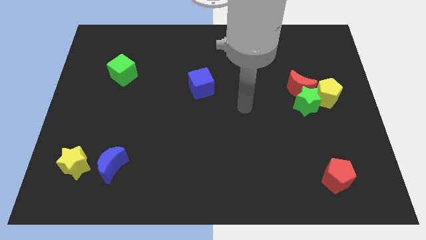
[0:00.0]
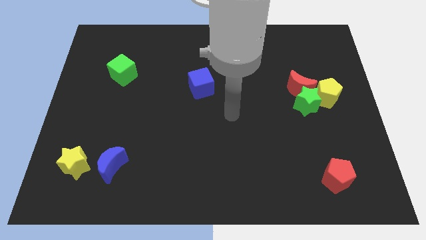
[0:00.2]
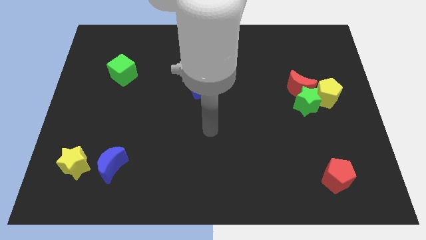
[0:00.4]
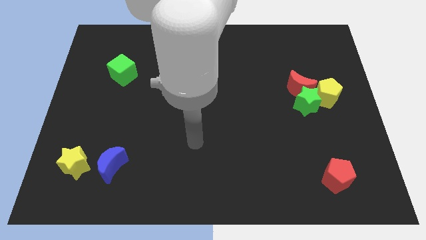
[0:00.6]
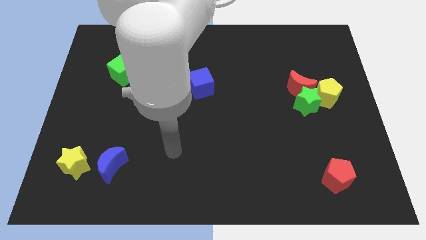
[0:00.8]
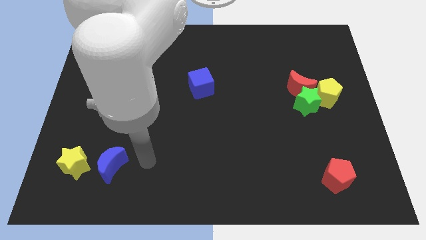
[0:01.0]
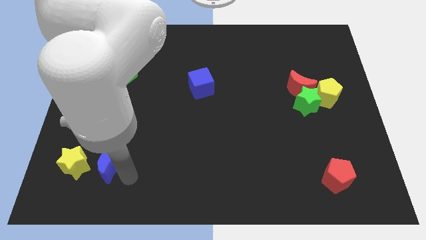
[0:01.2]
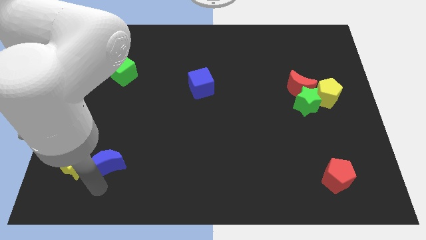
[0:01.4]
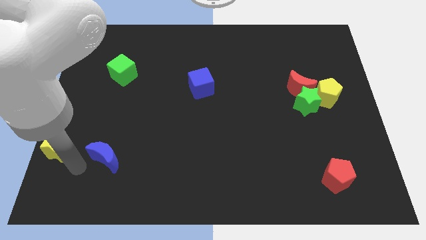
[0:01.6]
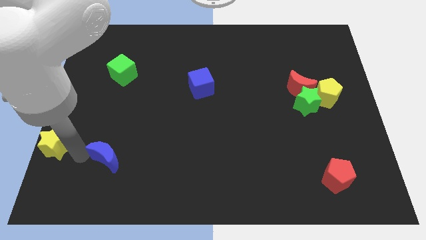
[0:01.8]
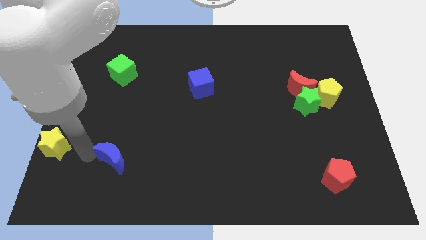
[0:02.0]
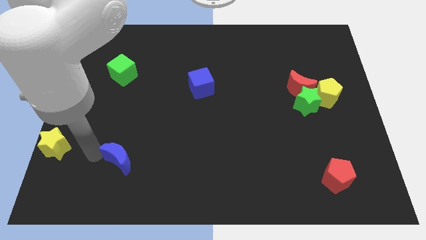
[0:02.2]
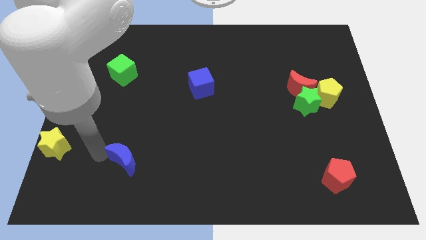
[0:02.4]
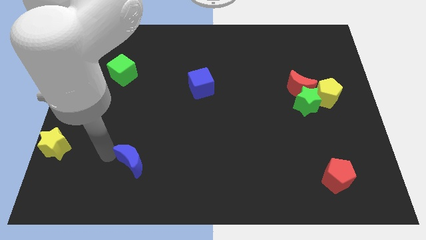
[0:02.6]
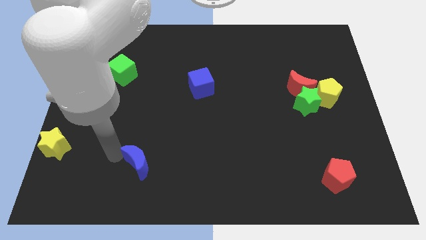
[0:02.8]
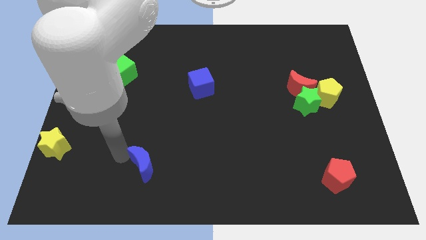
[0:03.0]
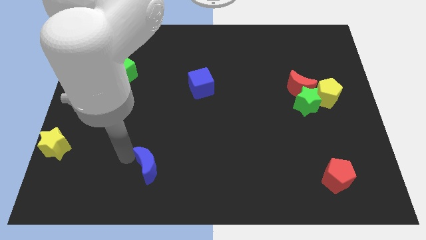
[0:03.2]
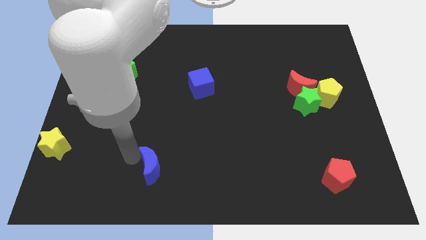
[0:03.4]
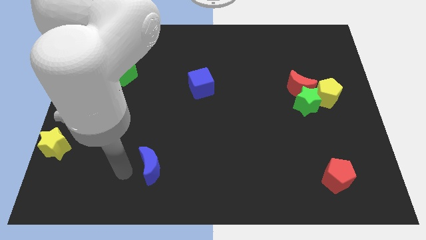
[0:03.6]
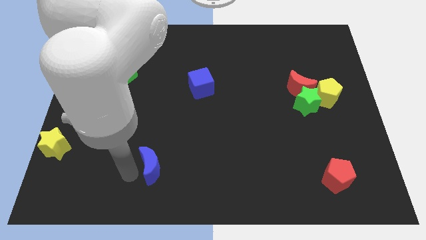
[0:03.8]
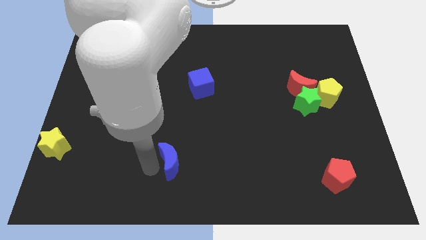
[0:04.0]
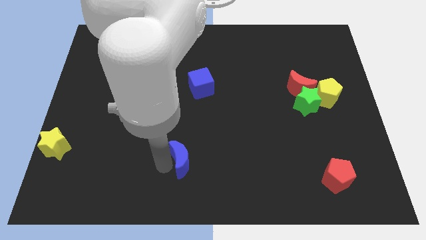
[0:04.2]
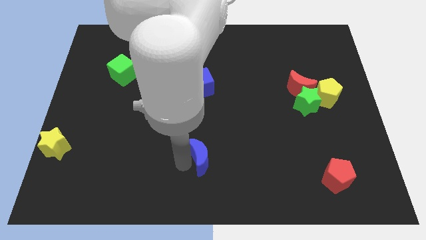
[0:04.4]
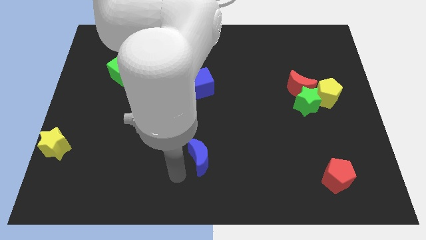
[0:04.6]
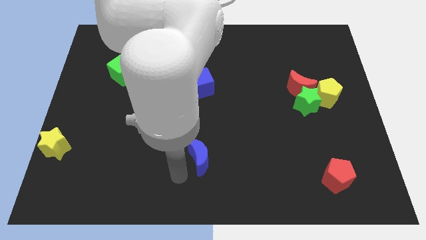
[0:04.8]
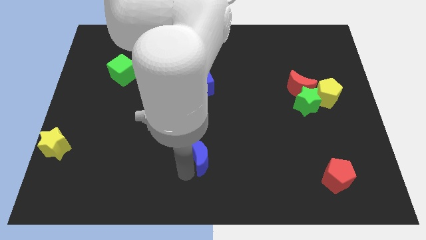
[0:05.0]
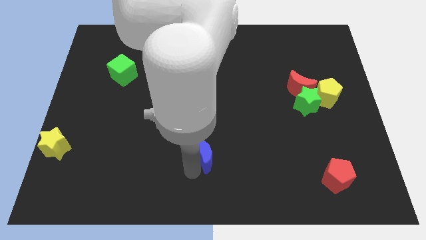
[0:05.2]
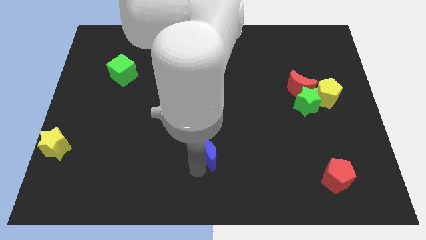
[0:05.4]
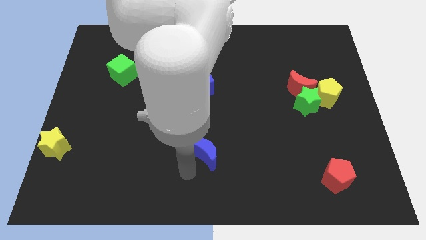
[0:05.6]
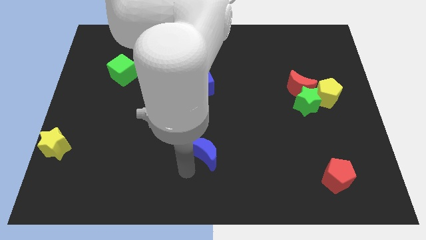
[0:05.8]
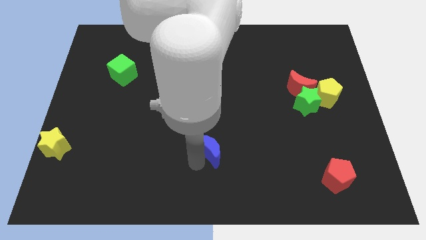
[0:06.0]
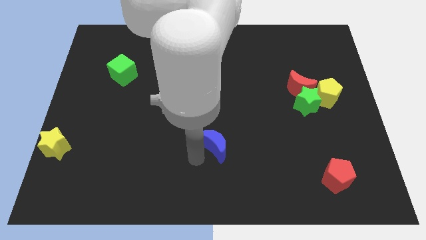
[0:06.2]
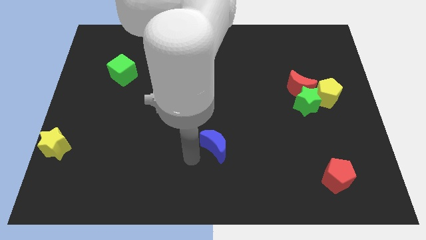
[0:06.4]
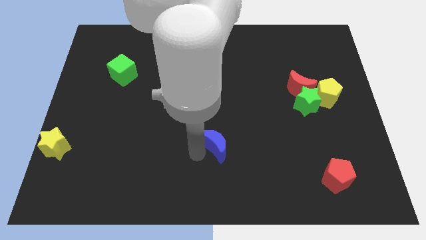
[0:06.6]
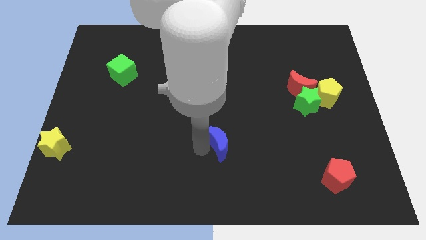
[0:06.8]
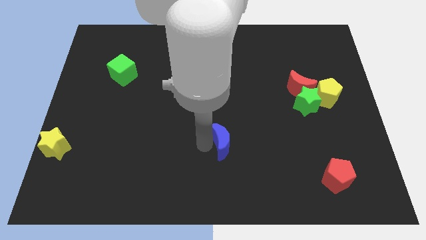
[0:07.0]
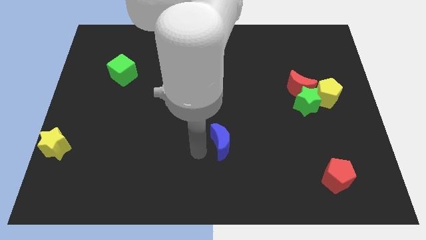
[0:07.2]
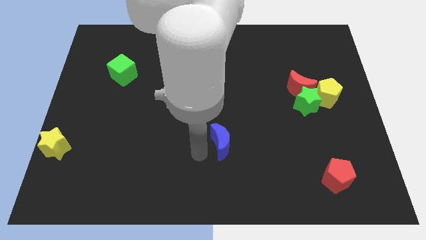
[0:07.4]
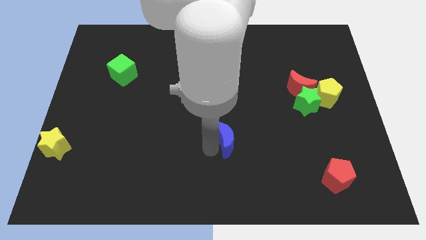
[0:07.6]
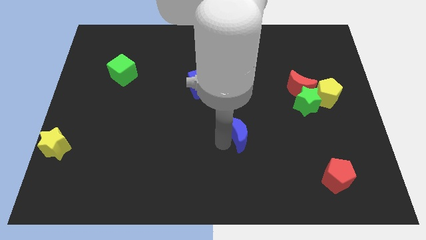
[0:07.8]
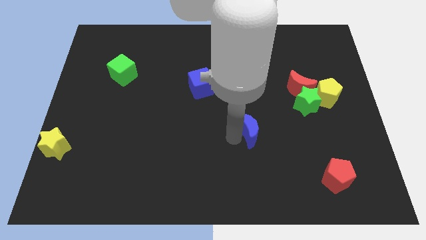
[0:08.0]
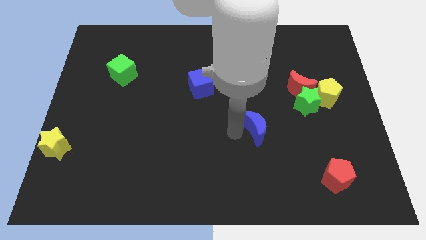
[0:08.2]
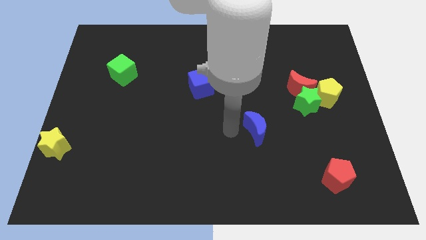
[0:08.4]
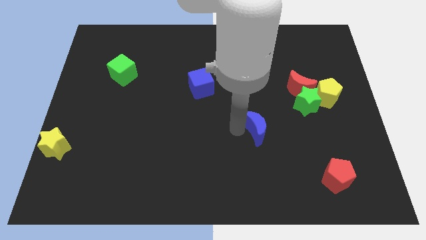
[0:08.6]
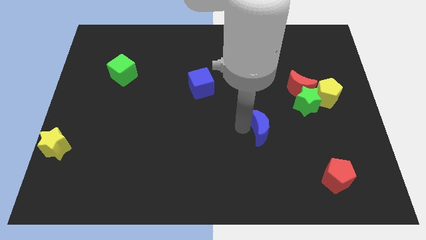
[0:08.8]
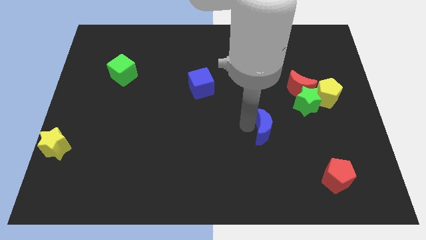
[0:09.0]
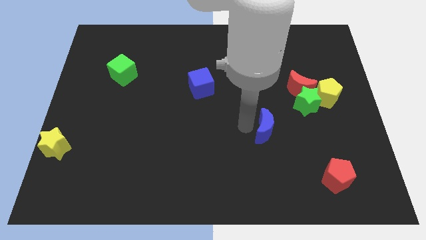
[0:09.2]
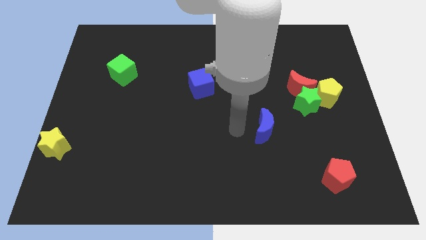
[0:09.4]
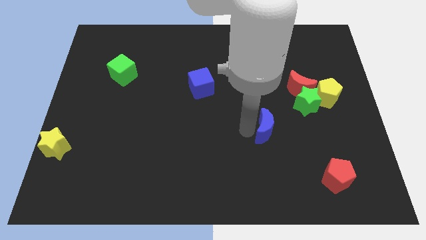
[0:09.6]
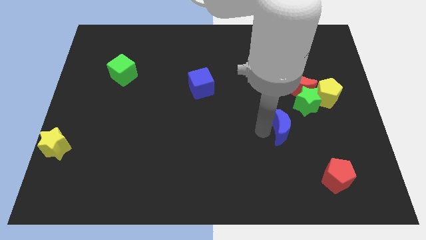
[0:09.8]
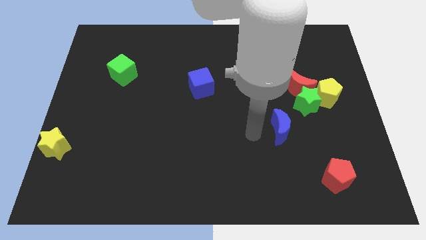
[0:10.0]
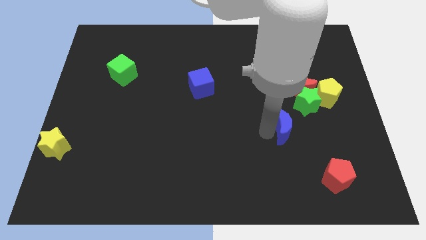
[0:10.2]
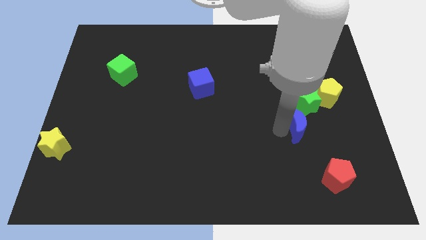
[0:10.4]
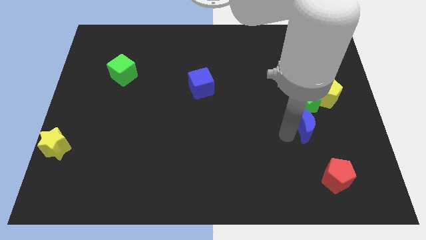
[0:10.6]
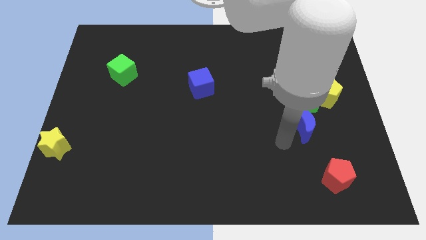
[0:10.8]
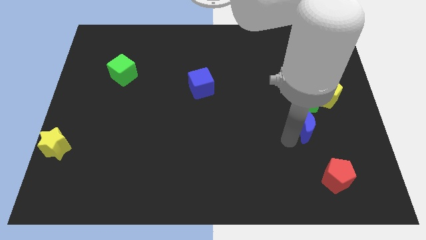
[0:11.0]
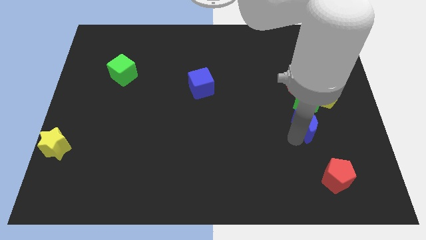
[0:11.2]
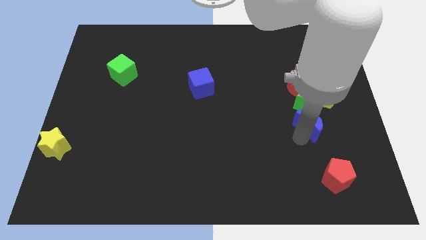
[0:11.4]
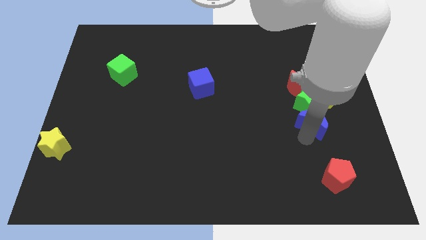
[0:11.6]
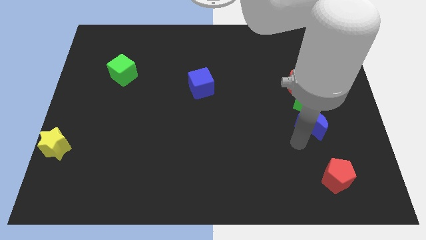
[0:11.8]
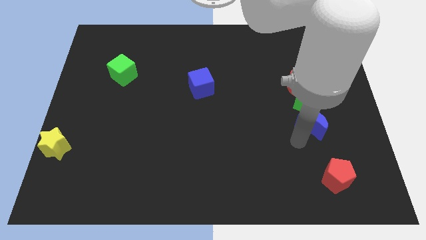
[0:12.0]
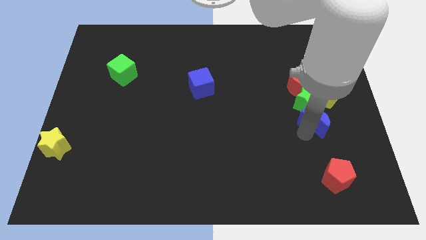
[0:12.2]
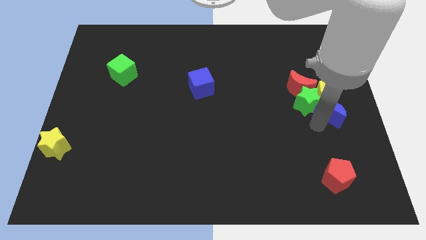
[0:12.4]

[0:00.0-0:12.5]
put the blue moon to the yellow pentagon
